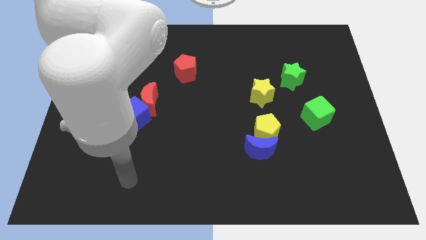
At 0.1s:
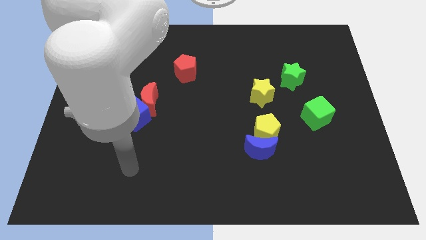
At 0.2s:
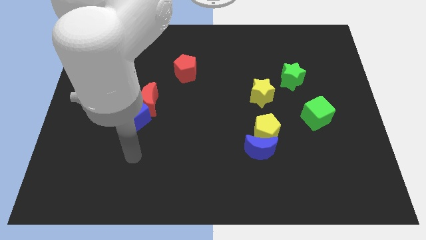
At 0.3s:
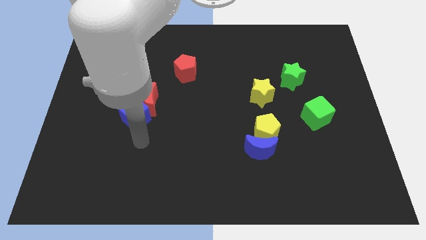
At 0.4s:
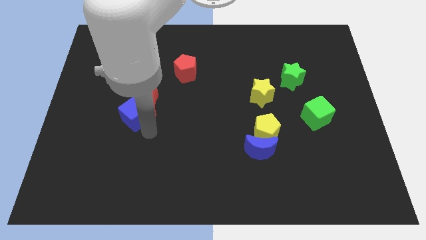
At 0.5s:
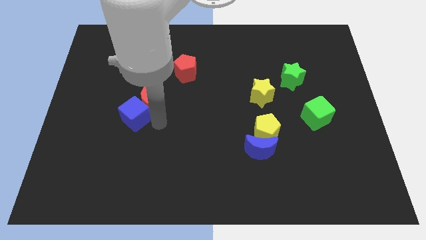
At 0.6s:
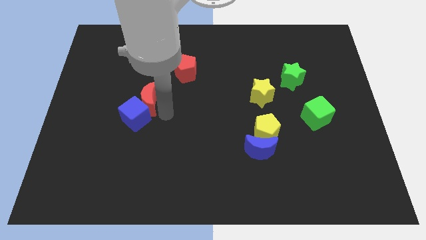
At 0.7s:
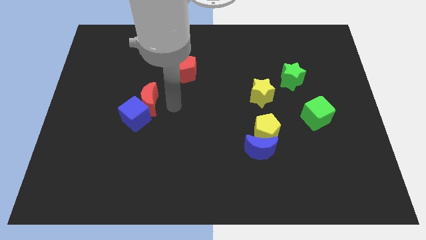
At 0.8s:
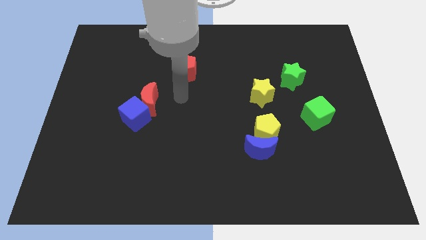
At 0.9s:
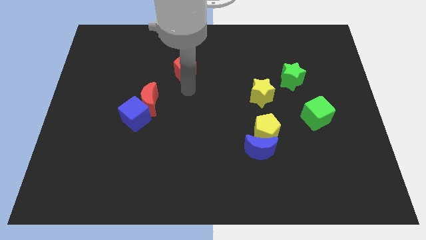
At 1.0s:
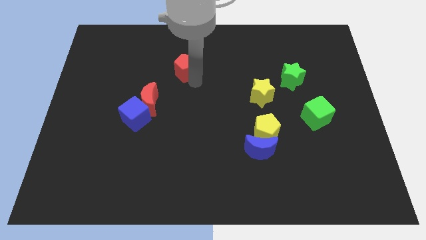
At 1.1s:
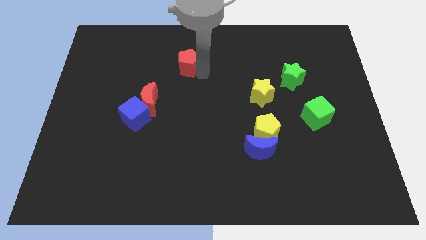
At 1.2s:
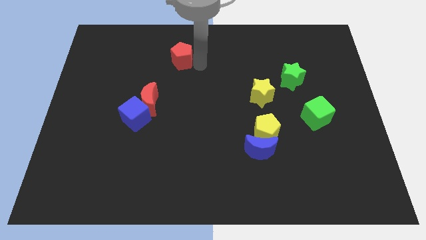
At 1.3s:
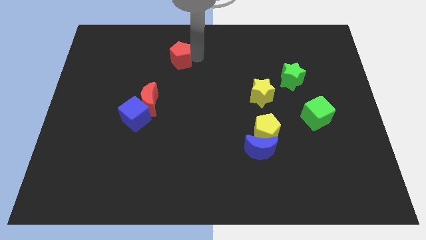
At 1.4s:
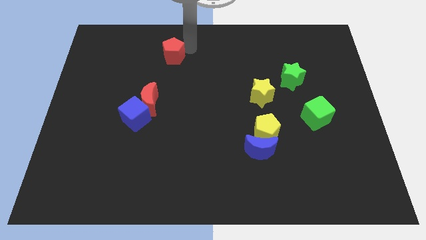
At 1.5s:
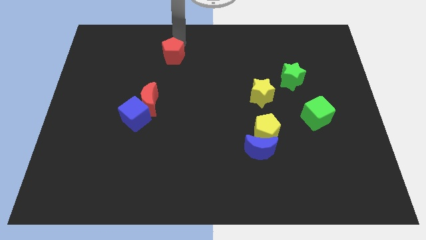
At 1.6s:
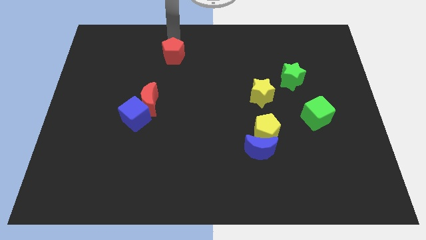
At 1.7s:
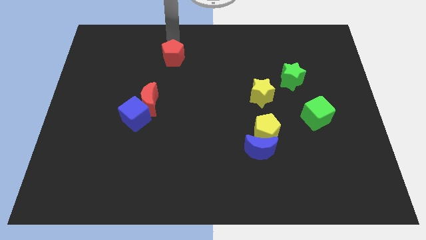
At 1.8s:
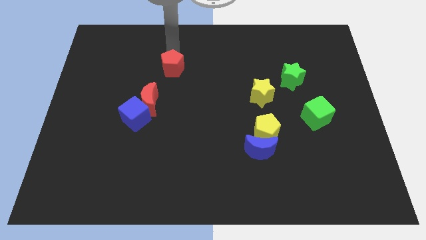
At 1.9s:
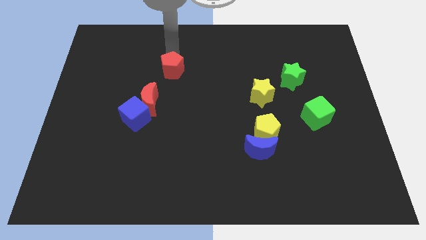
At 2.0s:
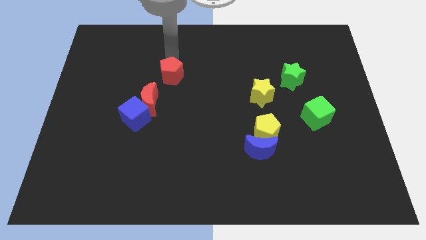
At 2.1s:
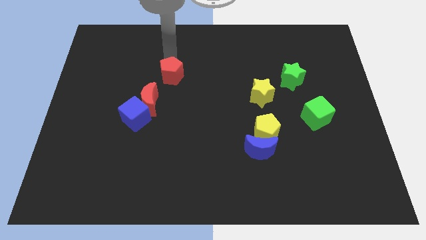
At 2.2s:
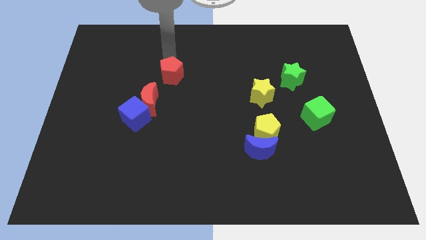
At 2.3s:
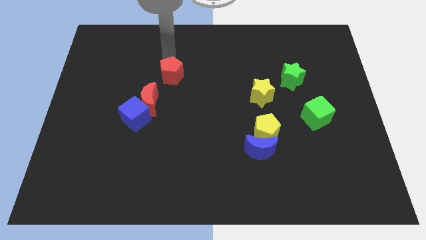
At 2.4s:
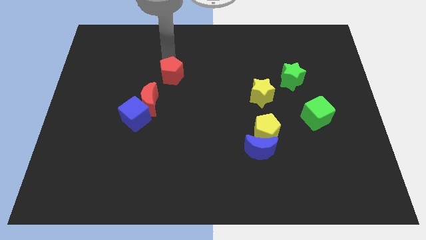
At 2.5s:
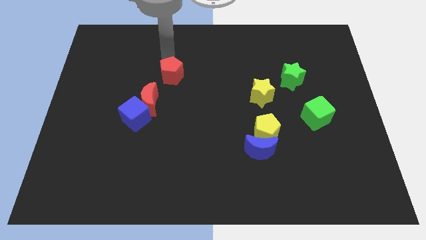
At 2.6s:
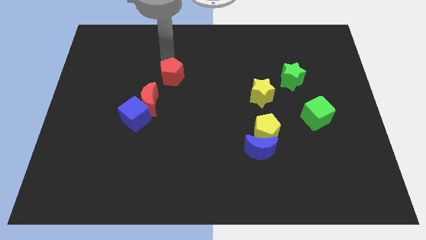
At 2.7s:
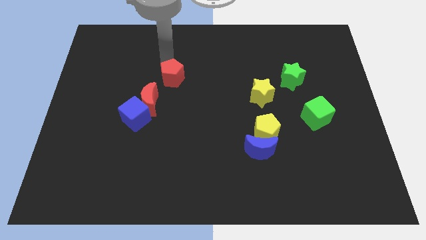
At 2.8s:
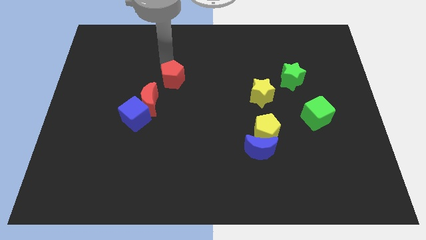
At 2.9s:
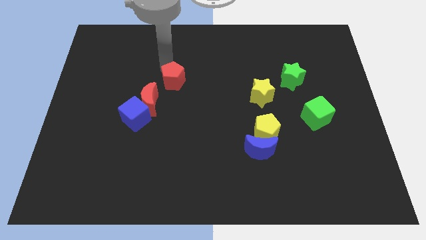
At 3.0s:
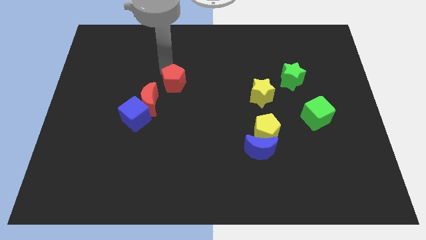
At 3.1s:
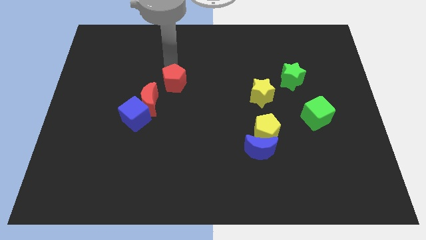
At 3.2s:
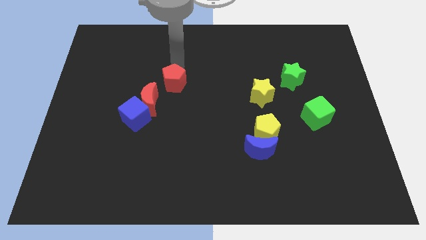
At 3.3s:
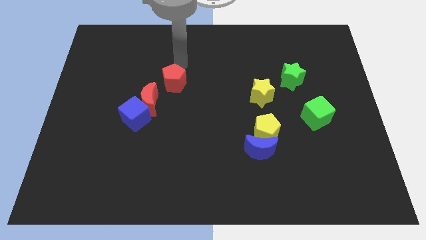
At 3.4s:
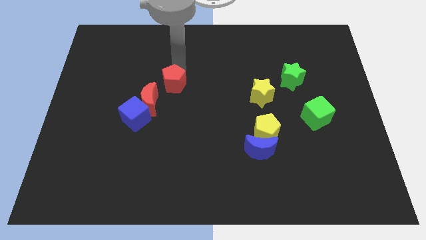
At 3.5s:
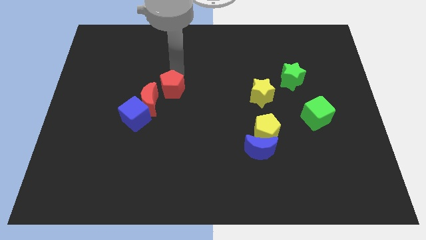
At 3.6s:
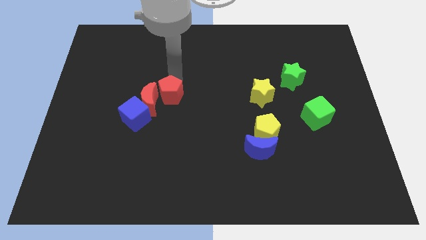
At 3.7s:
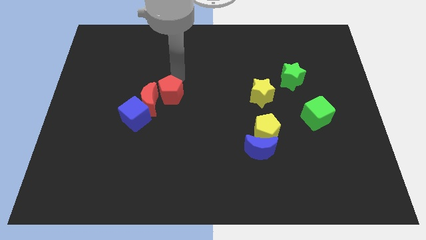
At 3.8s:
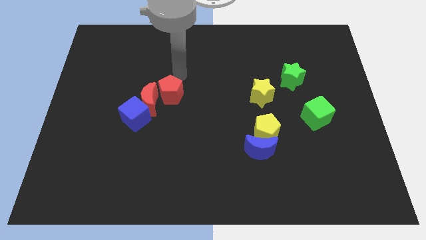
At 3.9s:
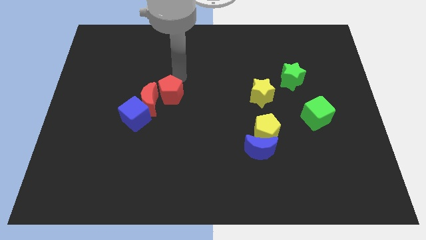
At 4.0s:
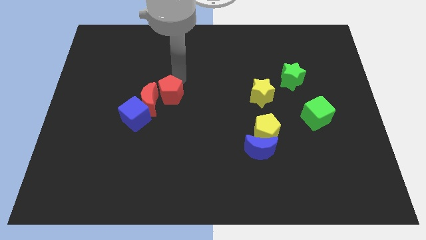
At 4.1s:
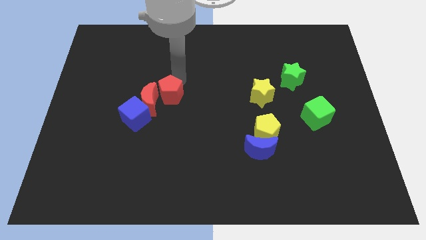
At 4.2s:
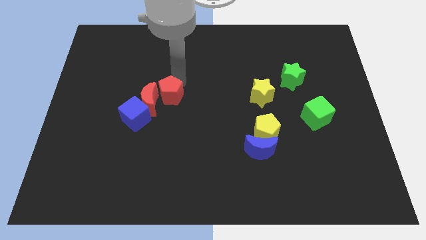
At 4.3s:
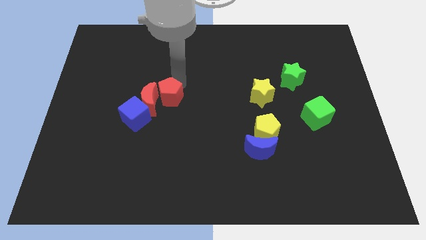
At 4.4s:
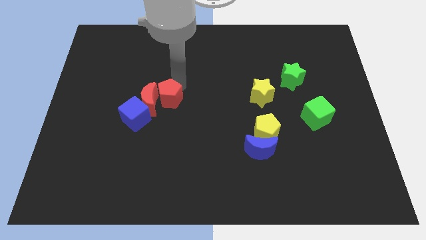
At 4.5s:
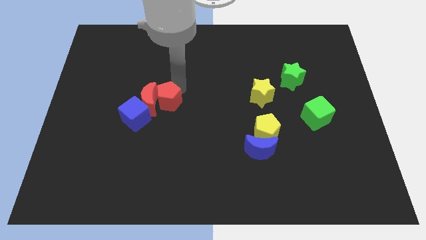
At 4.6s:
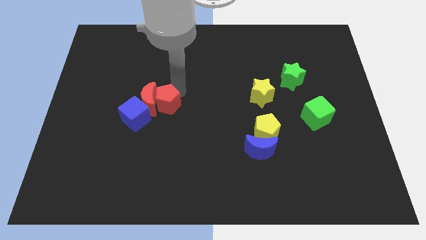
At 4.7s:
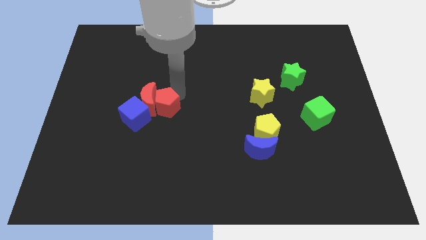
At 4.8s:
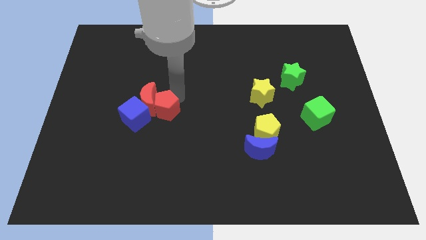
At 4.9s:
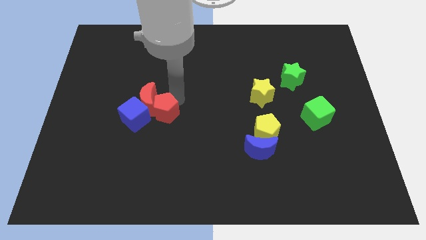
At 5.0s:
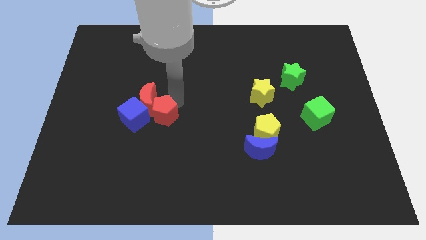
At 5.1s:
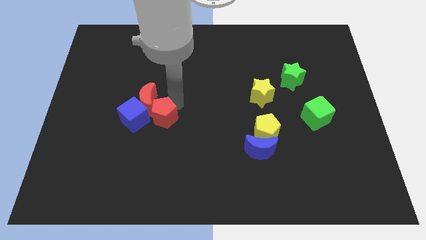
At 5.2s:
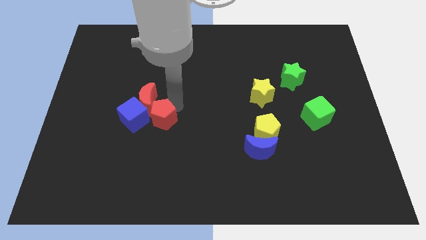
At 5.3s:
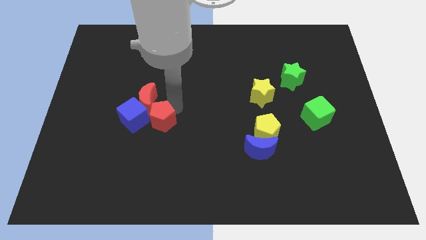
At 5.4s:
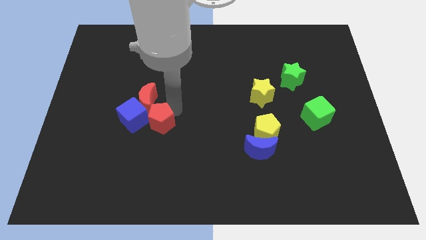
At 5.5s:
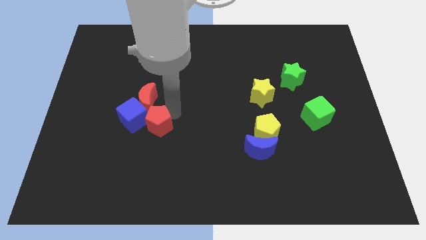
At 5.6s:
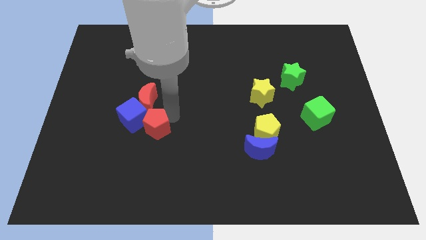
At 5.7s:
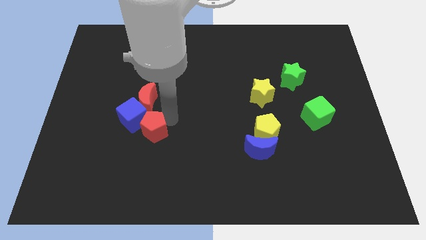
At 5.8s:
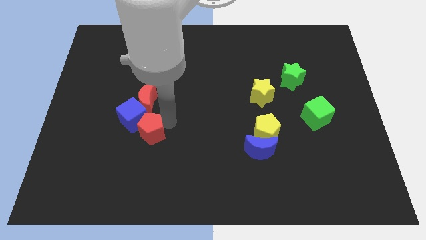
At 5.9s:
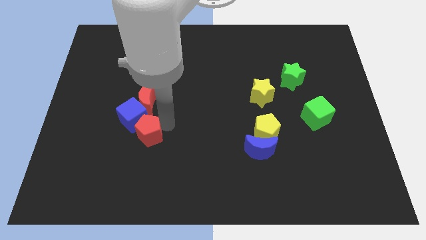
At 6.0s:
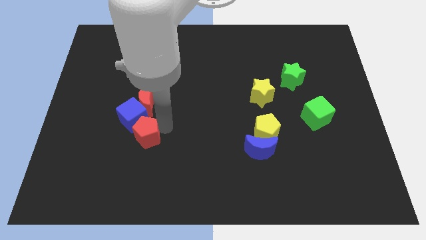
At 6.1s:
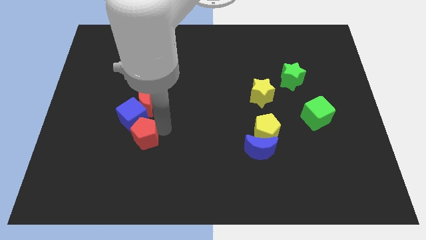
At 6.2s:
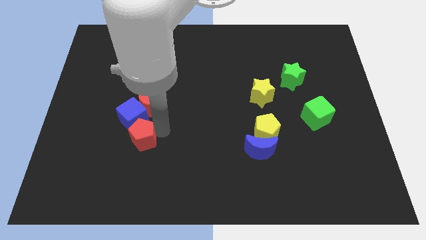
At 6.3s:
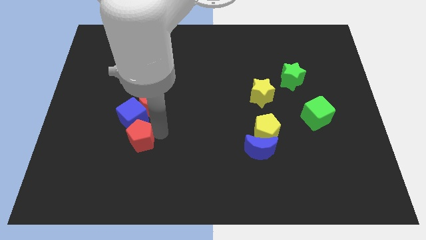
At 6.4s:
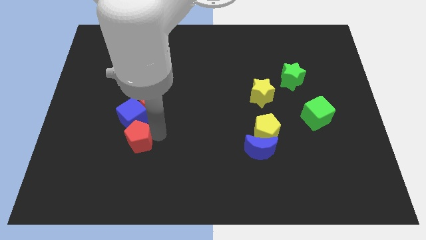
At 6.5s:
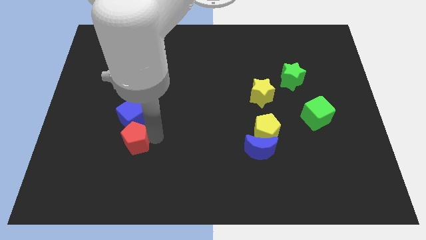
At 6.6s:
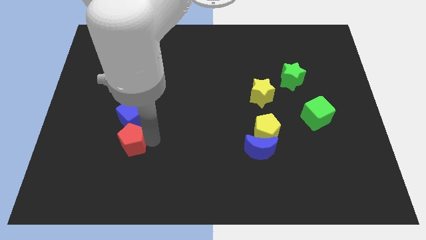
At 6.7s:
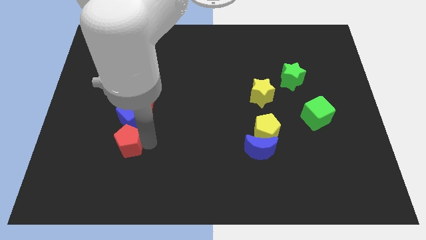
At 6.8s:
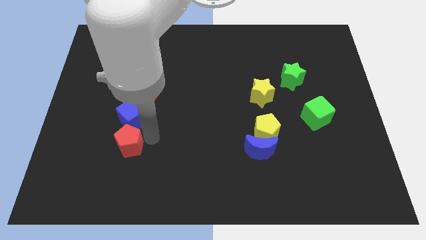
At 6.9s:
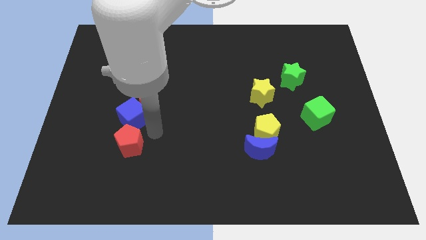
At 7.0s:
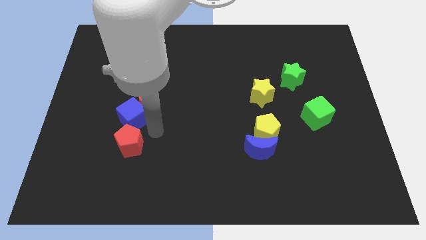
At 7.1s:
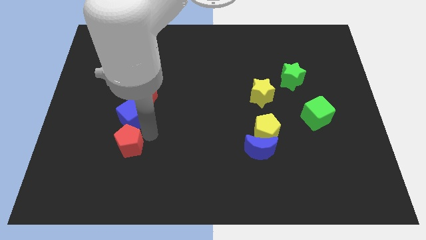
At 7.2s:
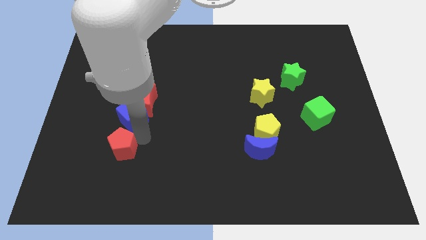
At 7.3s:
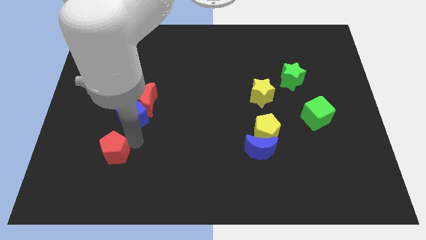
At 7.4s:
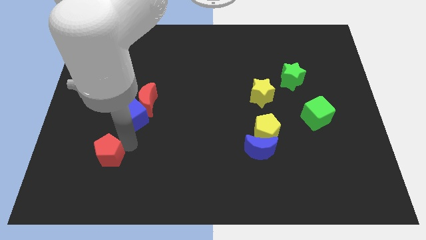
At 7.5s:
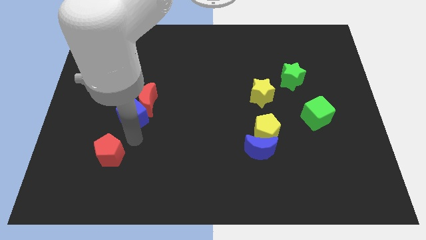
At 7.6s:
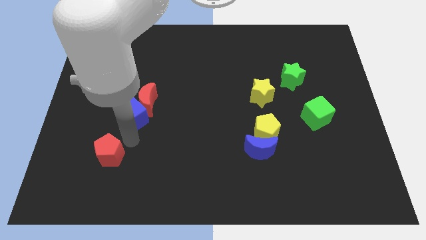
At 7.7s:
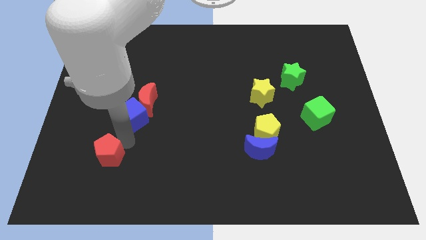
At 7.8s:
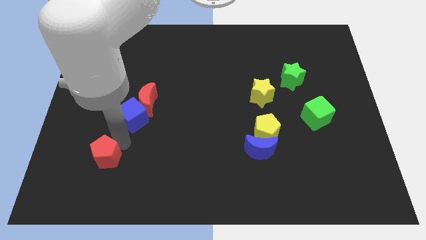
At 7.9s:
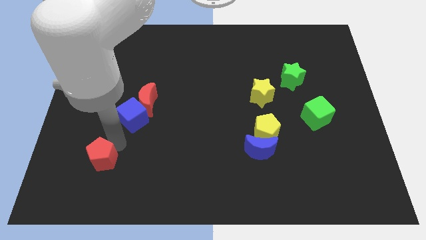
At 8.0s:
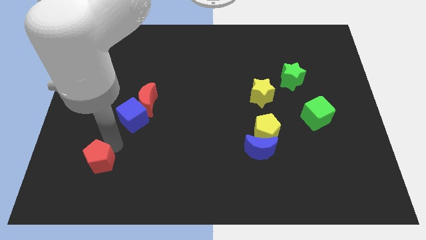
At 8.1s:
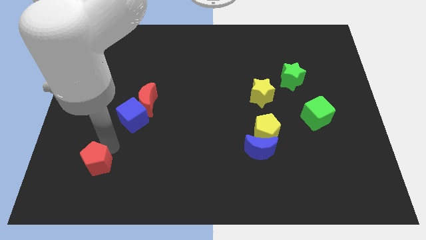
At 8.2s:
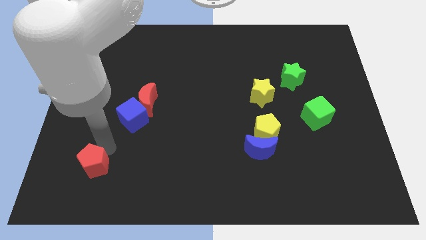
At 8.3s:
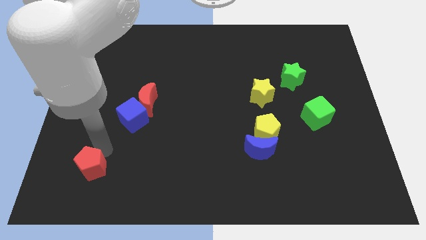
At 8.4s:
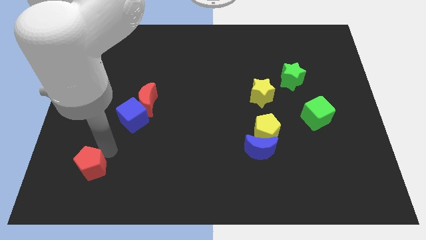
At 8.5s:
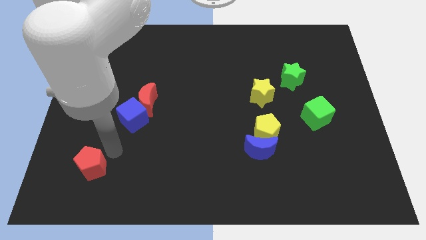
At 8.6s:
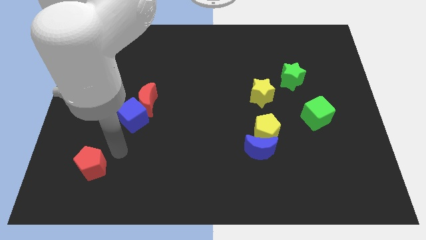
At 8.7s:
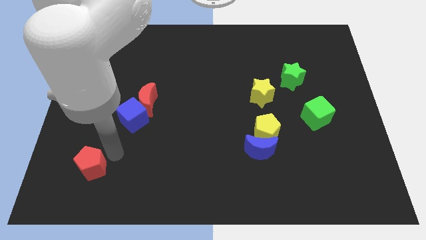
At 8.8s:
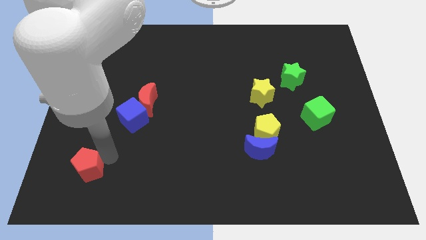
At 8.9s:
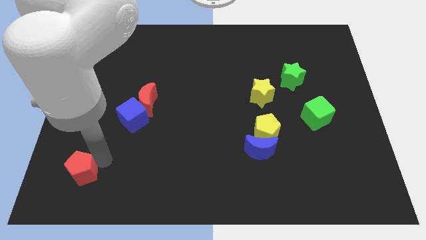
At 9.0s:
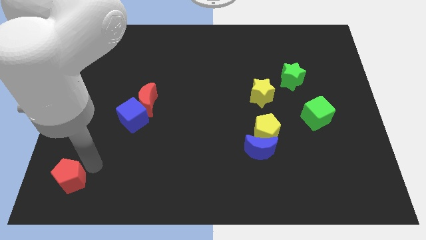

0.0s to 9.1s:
push the red pentagon to the bottom left corner
